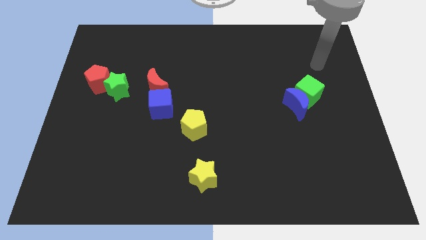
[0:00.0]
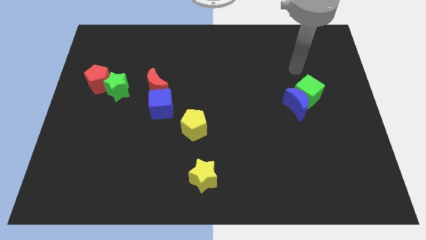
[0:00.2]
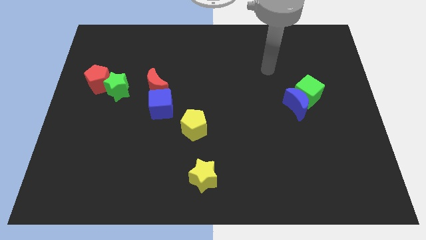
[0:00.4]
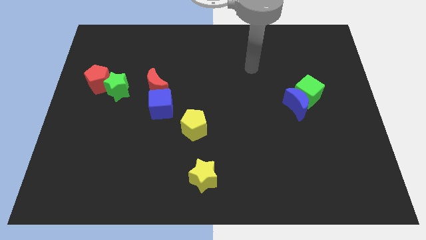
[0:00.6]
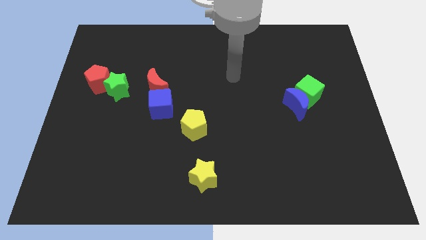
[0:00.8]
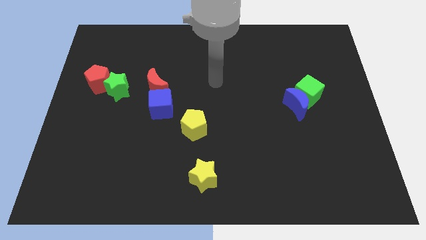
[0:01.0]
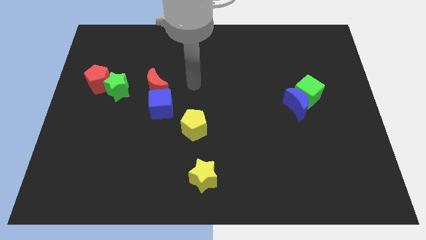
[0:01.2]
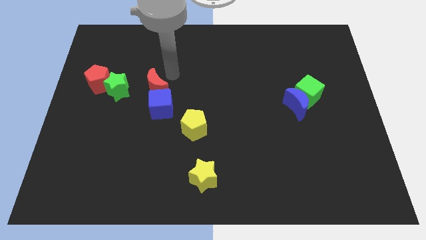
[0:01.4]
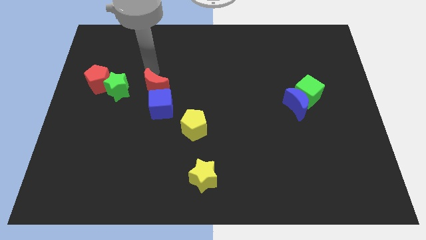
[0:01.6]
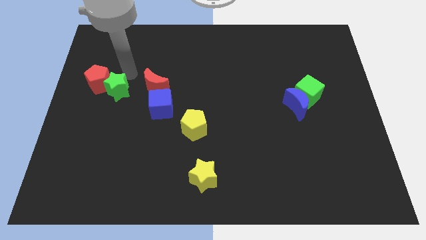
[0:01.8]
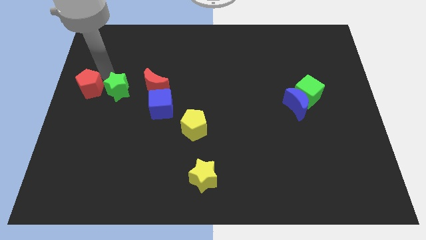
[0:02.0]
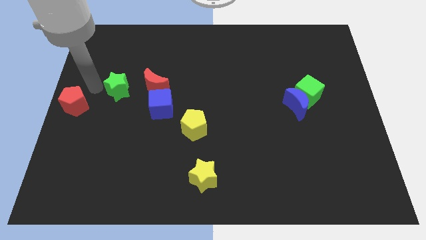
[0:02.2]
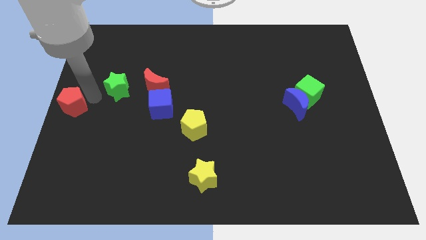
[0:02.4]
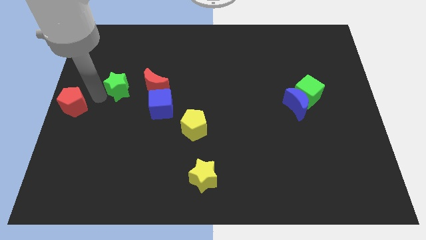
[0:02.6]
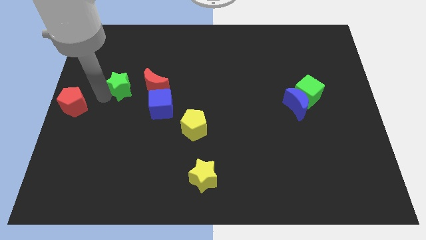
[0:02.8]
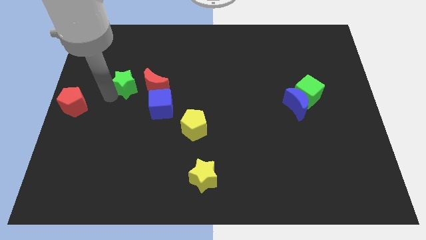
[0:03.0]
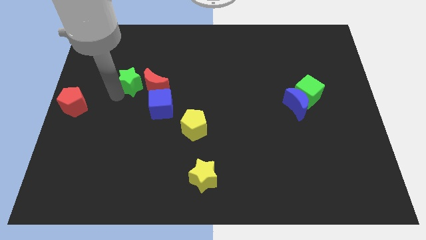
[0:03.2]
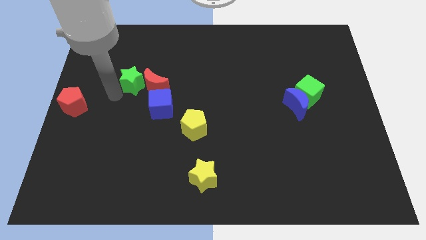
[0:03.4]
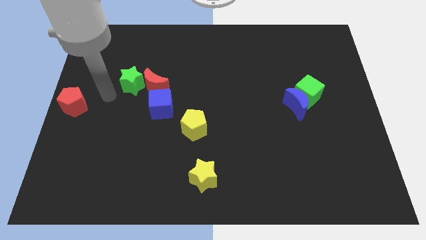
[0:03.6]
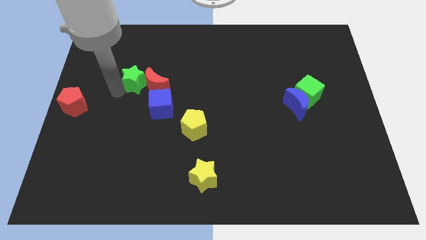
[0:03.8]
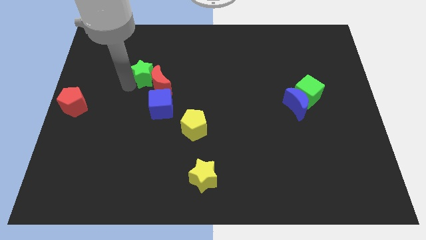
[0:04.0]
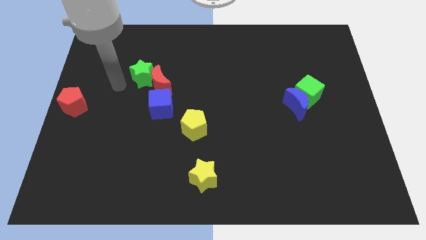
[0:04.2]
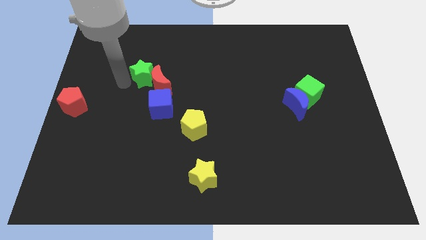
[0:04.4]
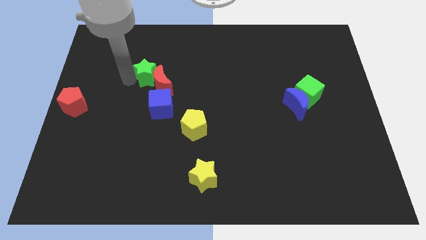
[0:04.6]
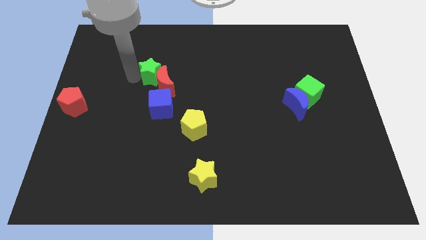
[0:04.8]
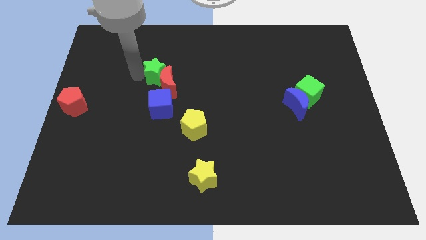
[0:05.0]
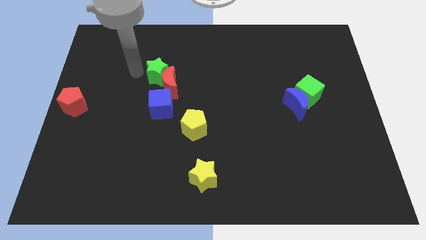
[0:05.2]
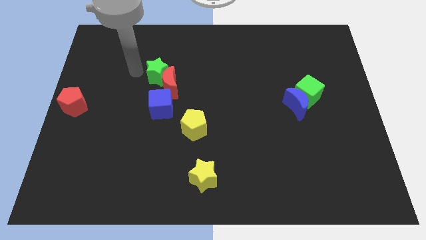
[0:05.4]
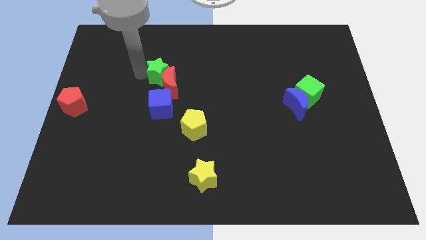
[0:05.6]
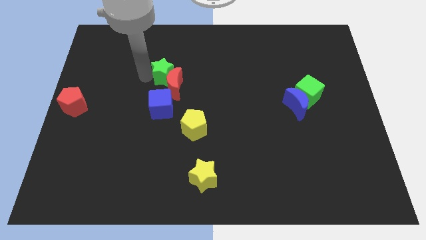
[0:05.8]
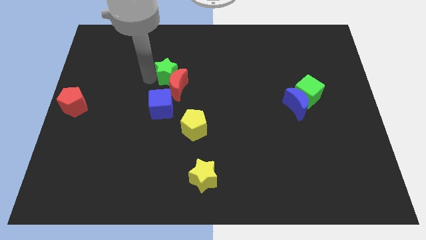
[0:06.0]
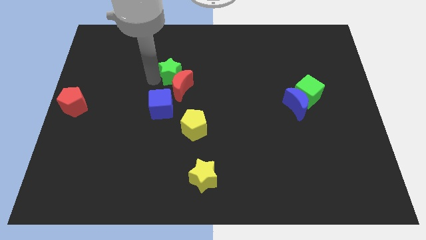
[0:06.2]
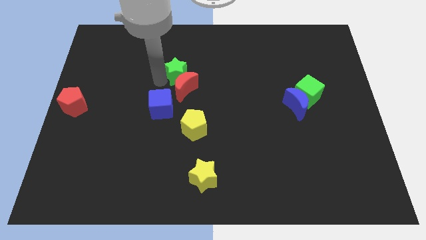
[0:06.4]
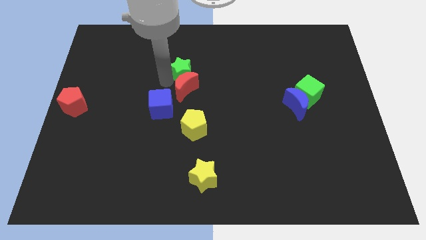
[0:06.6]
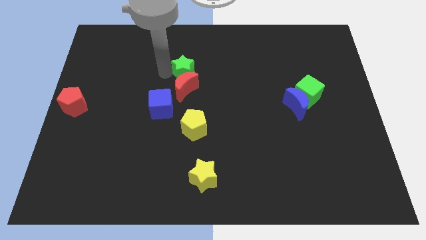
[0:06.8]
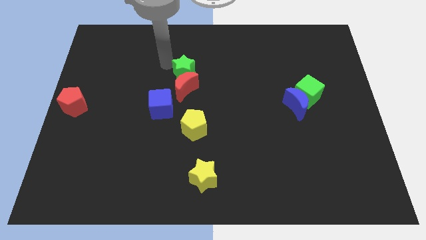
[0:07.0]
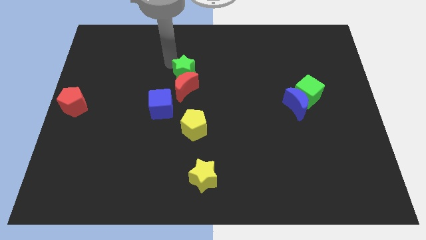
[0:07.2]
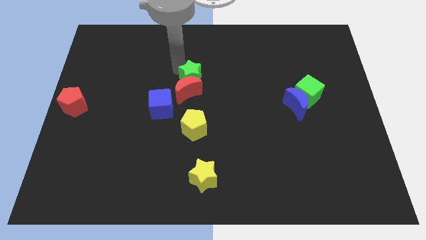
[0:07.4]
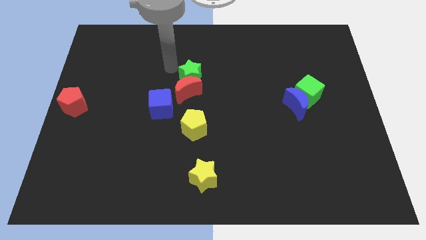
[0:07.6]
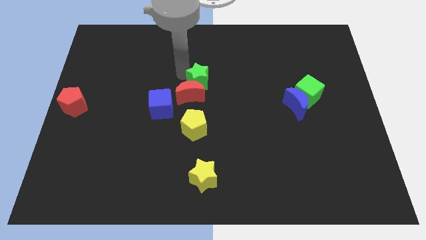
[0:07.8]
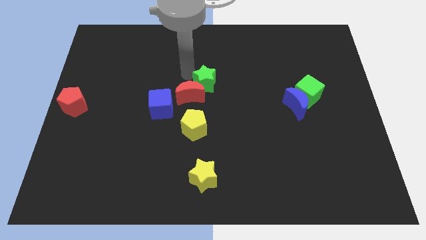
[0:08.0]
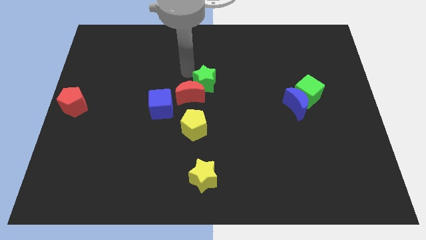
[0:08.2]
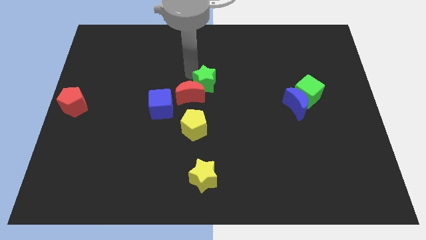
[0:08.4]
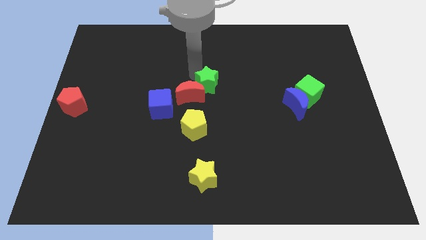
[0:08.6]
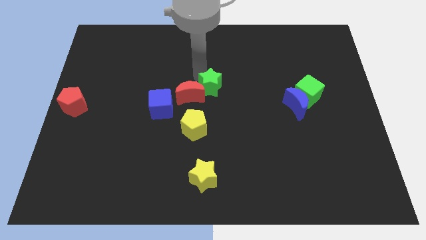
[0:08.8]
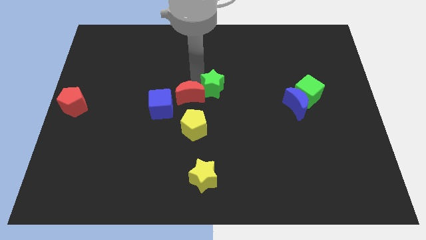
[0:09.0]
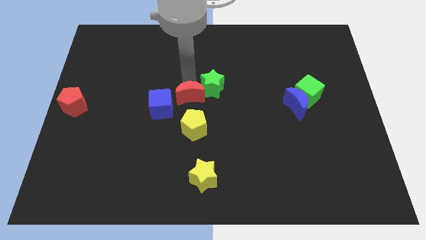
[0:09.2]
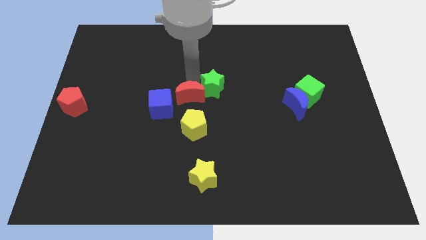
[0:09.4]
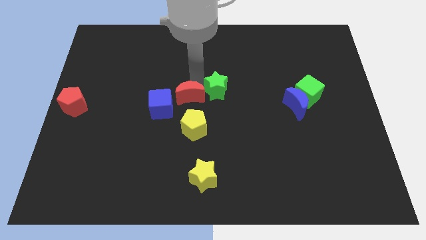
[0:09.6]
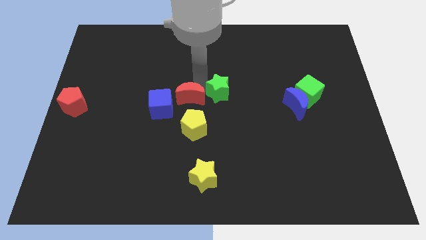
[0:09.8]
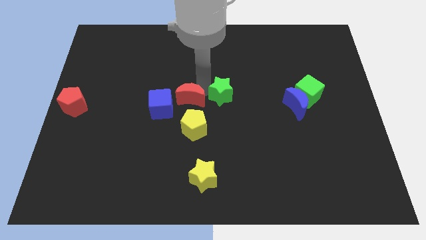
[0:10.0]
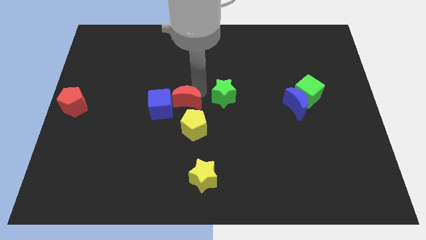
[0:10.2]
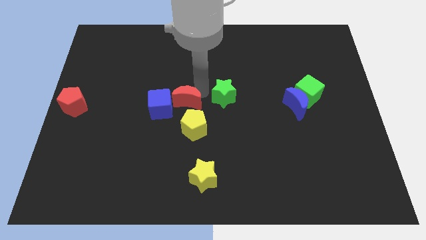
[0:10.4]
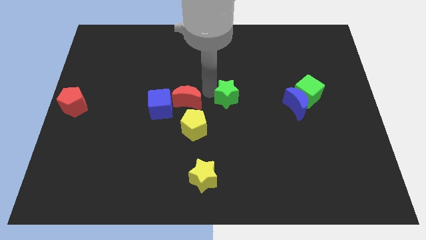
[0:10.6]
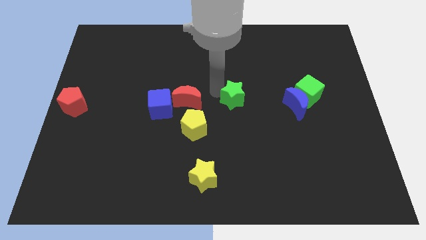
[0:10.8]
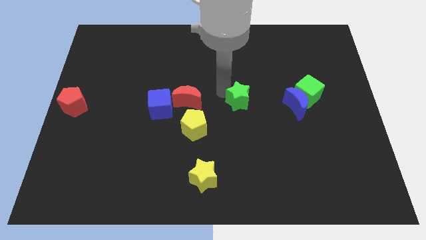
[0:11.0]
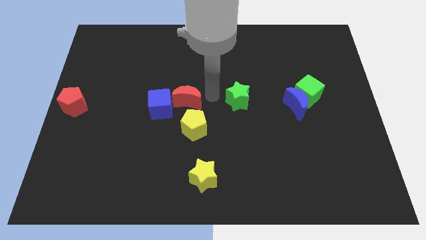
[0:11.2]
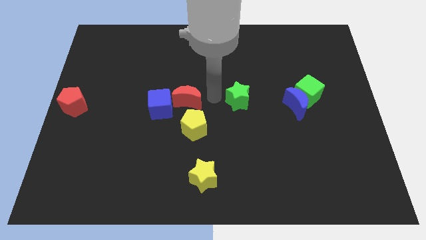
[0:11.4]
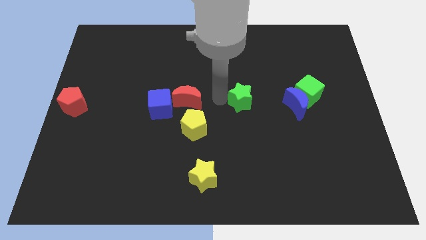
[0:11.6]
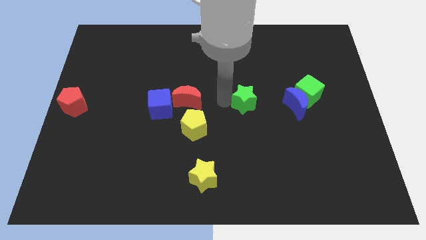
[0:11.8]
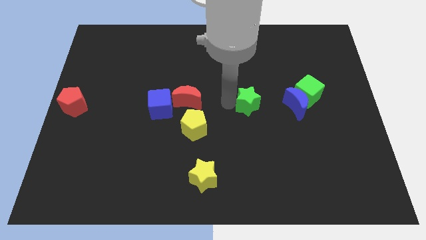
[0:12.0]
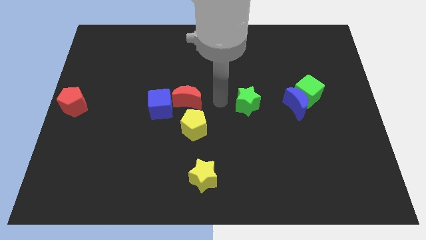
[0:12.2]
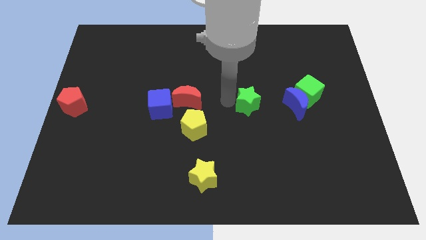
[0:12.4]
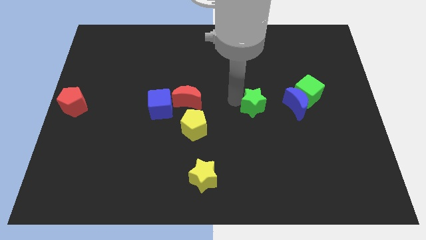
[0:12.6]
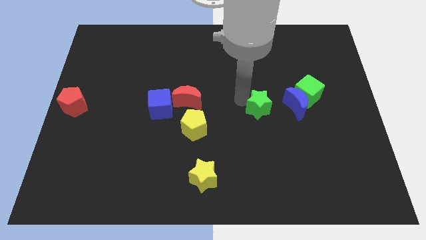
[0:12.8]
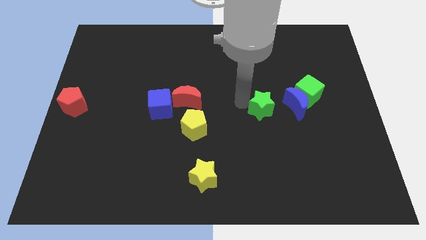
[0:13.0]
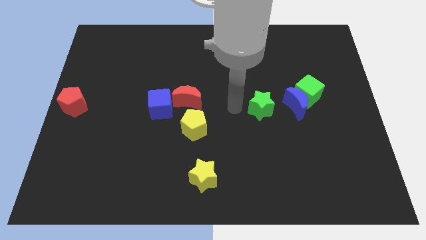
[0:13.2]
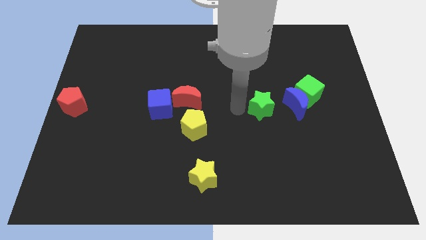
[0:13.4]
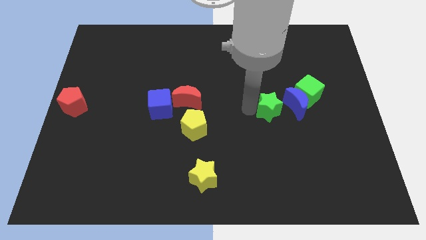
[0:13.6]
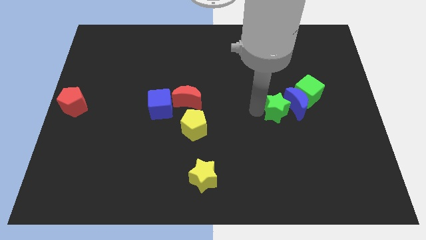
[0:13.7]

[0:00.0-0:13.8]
move the green star to the blue moon

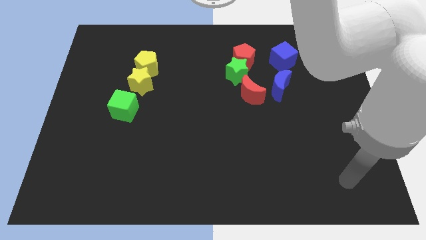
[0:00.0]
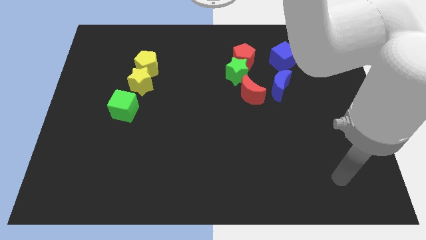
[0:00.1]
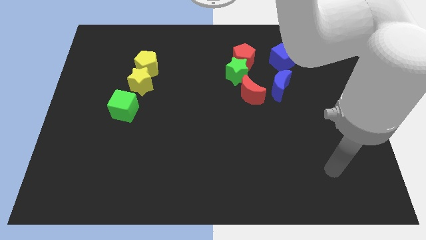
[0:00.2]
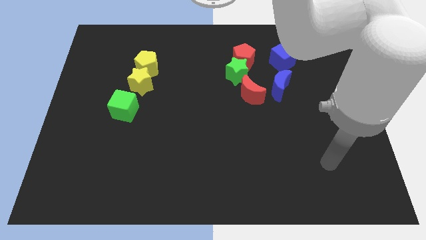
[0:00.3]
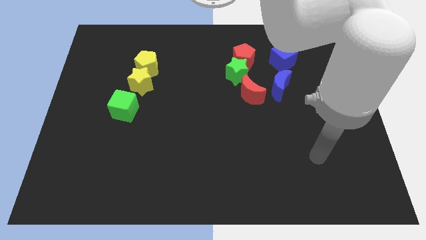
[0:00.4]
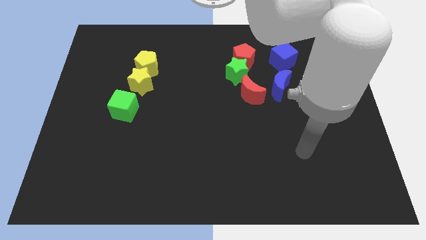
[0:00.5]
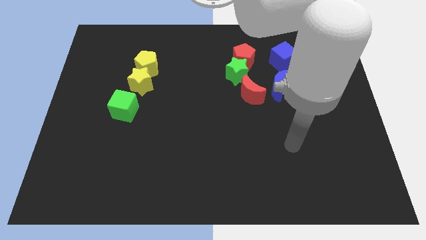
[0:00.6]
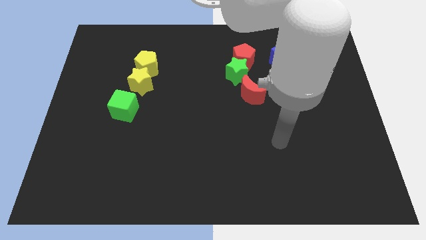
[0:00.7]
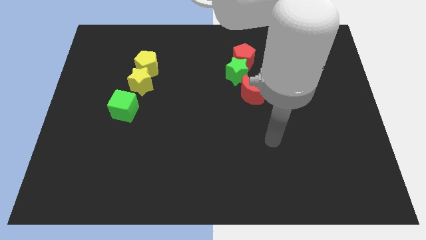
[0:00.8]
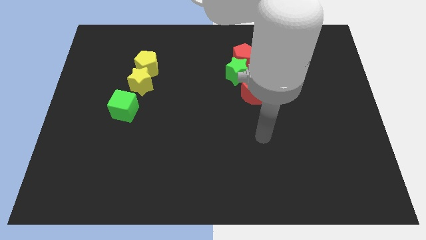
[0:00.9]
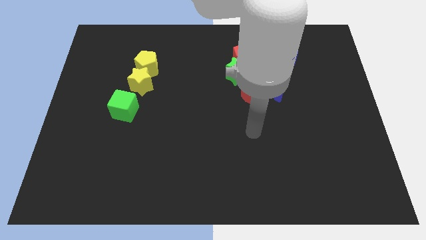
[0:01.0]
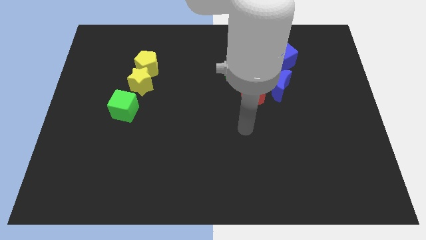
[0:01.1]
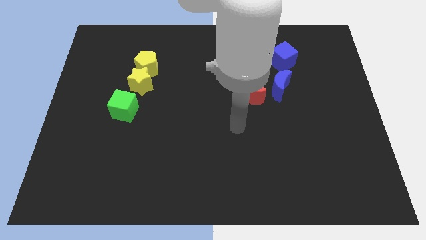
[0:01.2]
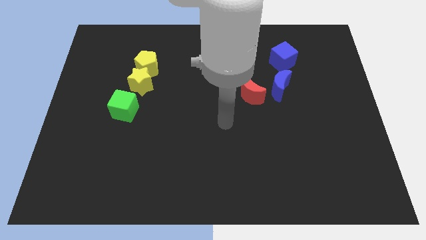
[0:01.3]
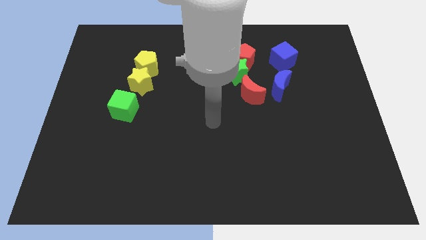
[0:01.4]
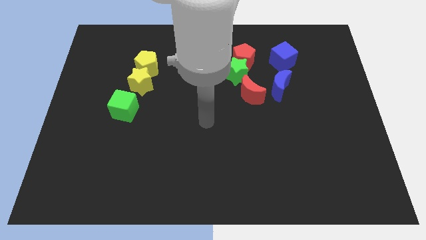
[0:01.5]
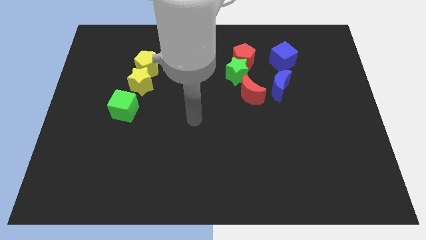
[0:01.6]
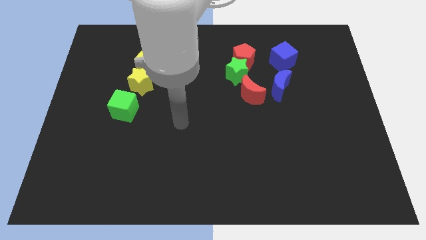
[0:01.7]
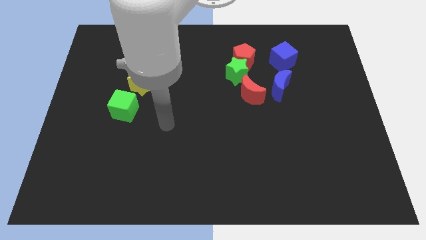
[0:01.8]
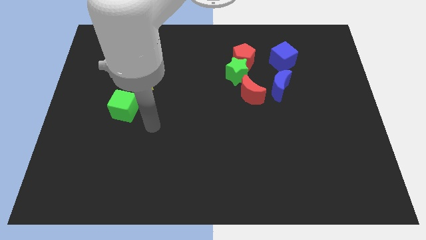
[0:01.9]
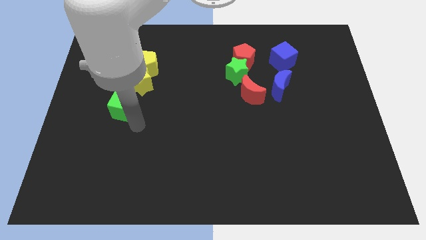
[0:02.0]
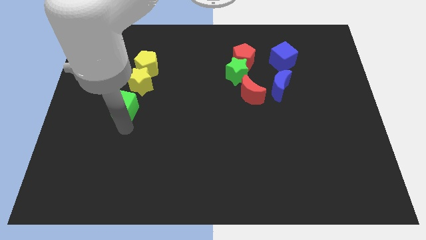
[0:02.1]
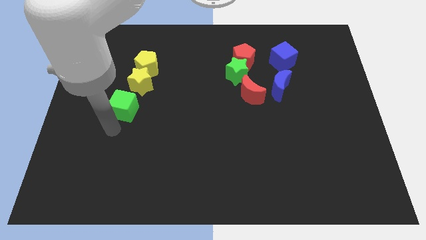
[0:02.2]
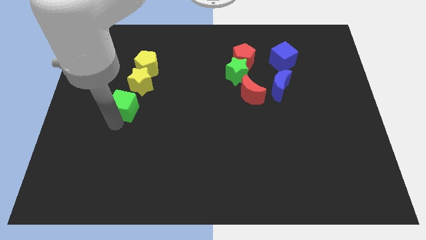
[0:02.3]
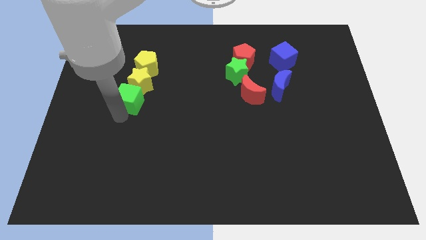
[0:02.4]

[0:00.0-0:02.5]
move the green cube next to the yellow star
